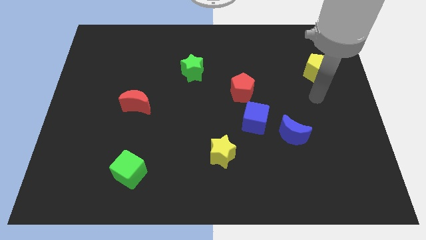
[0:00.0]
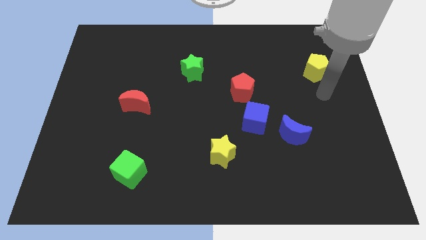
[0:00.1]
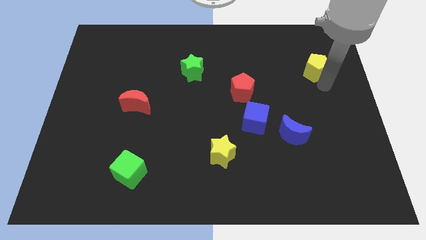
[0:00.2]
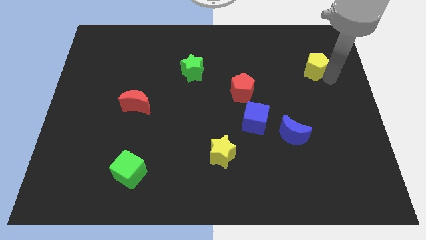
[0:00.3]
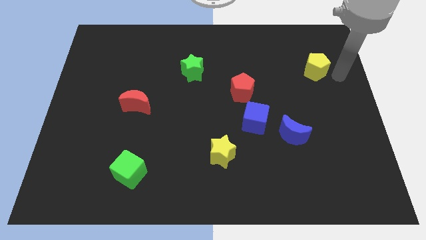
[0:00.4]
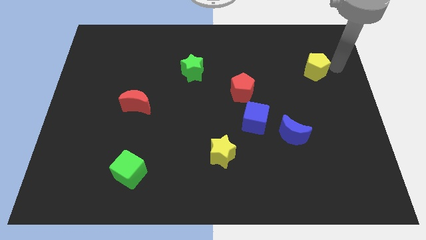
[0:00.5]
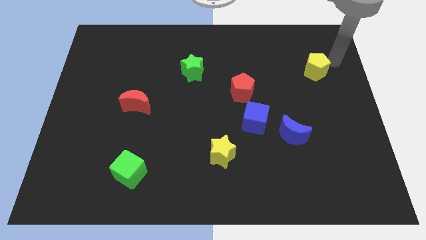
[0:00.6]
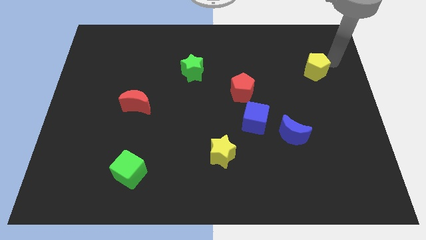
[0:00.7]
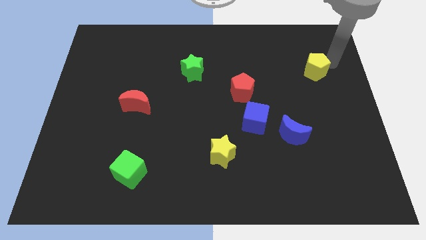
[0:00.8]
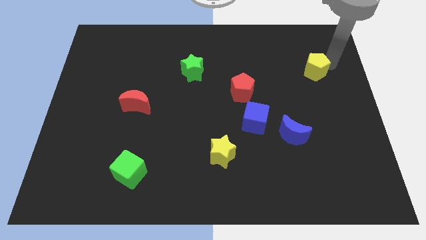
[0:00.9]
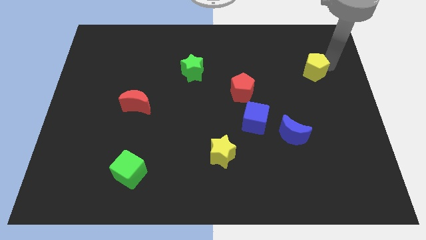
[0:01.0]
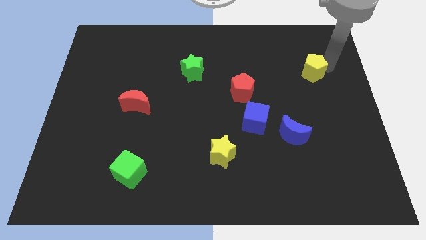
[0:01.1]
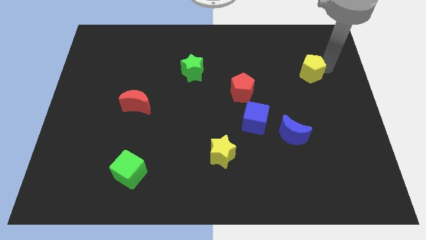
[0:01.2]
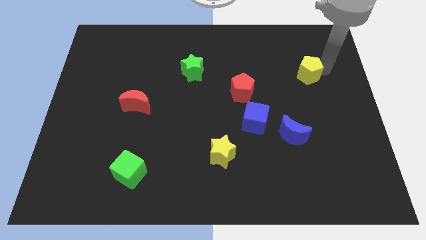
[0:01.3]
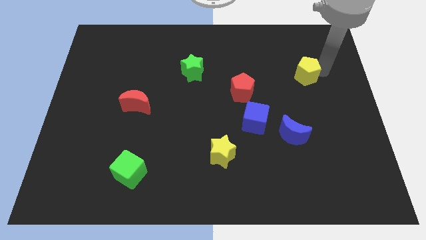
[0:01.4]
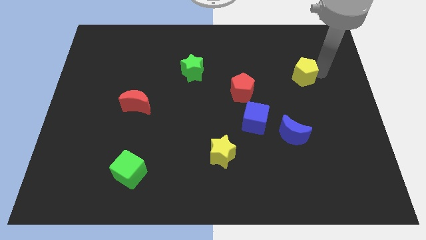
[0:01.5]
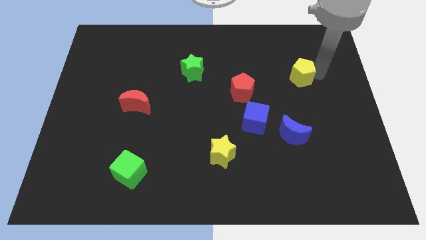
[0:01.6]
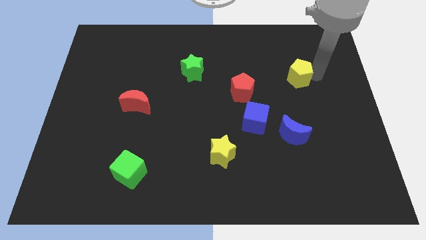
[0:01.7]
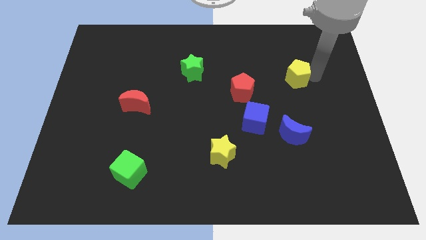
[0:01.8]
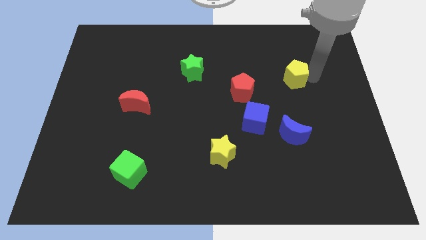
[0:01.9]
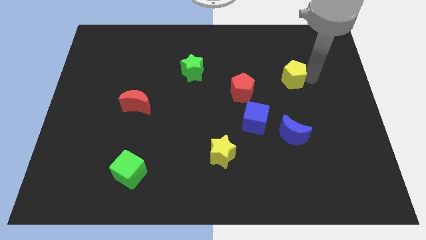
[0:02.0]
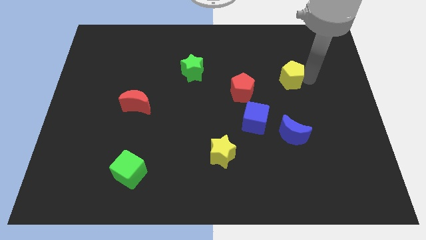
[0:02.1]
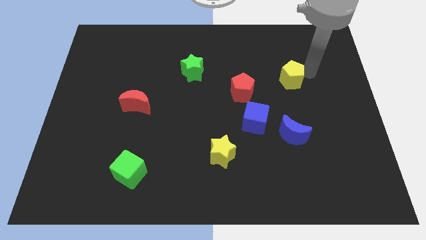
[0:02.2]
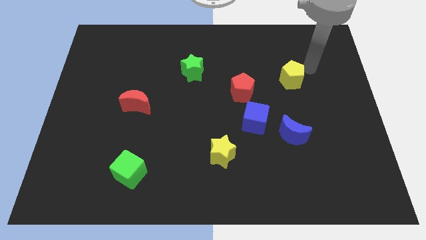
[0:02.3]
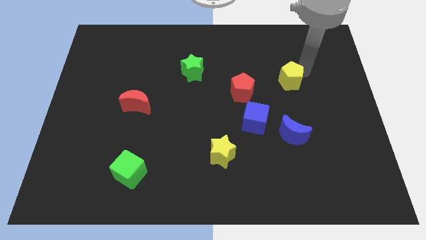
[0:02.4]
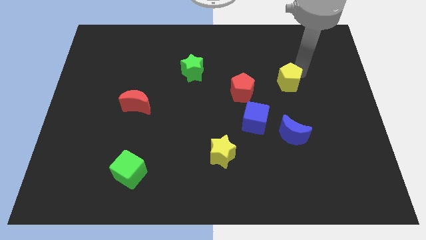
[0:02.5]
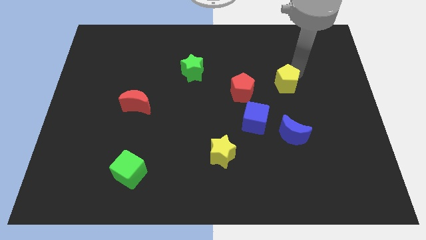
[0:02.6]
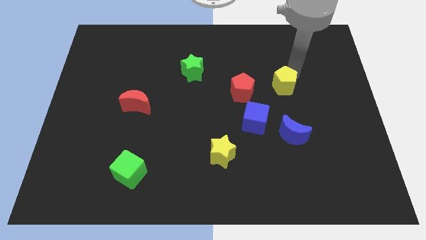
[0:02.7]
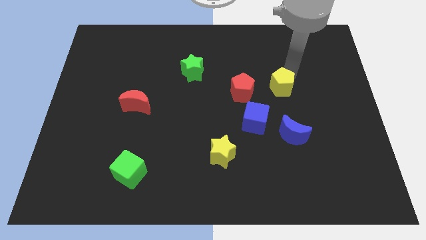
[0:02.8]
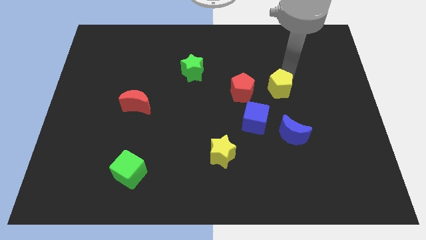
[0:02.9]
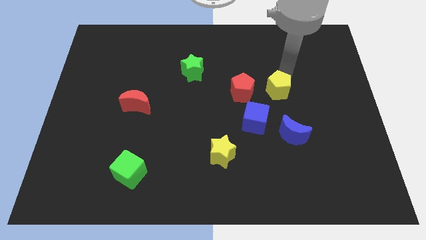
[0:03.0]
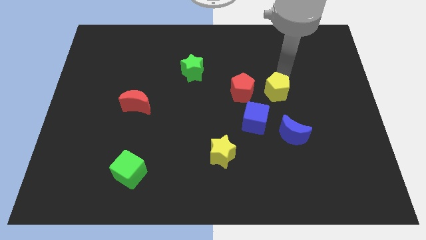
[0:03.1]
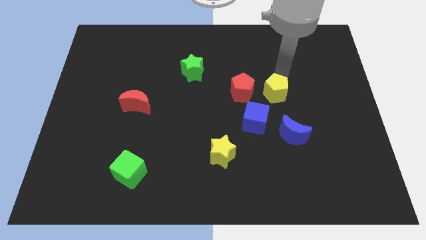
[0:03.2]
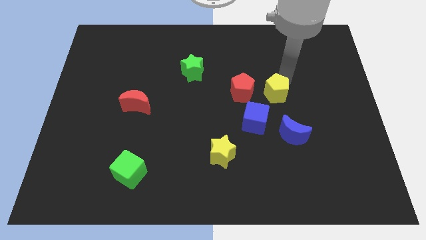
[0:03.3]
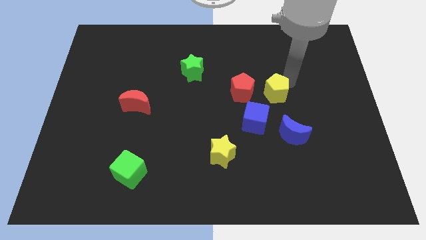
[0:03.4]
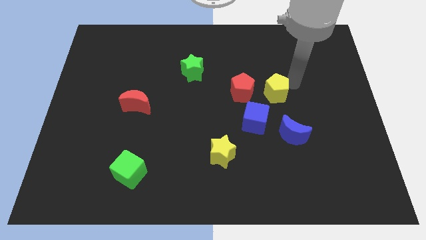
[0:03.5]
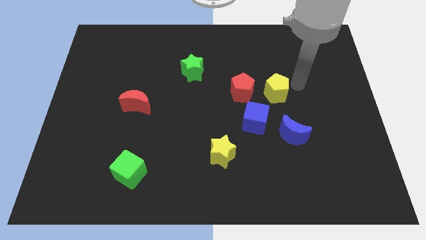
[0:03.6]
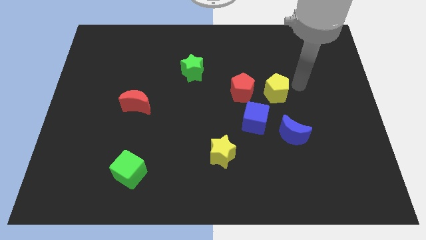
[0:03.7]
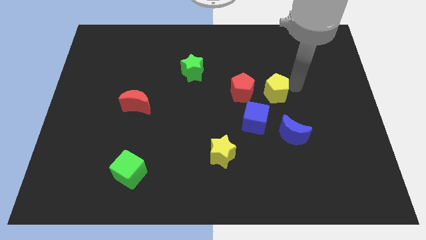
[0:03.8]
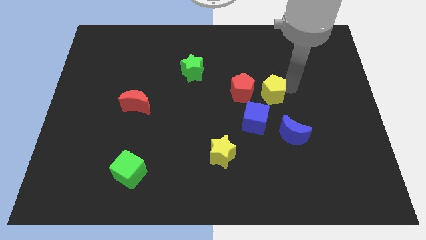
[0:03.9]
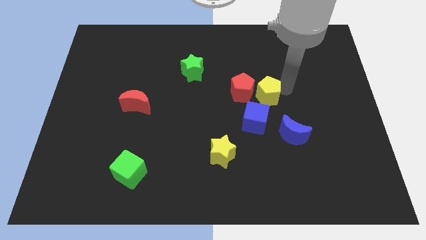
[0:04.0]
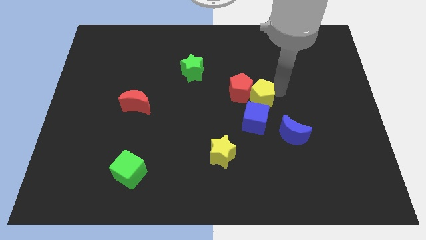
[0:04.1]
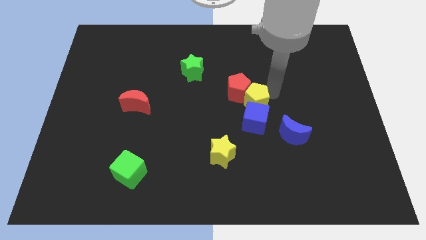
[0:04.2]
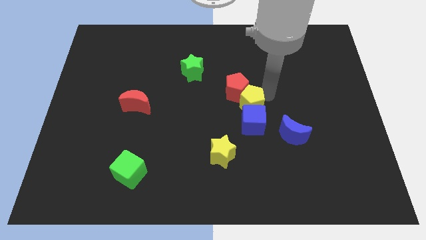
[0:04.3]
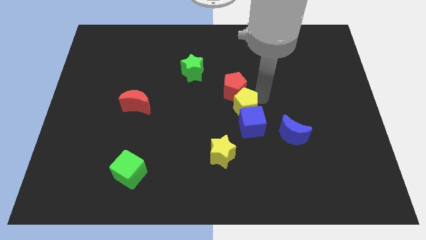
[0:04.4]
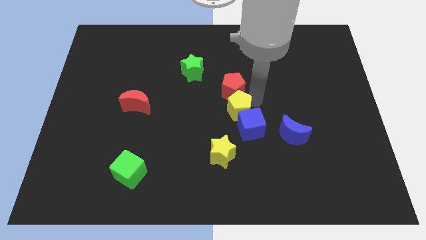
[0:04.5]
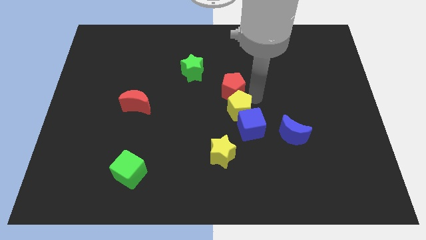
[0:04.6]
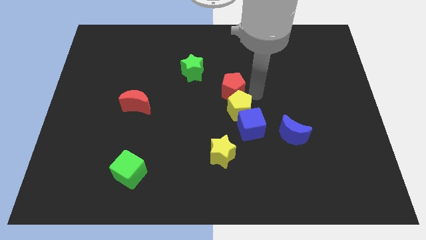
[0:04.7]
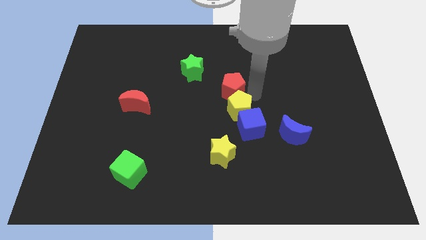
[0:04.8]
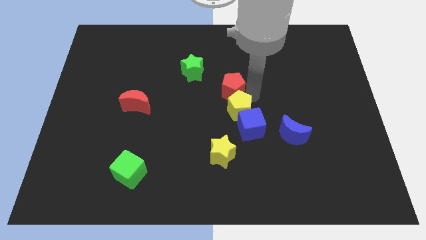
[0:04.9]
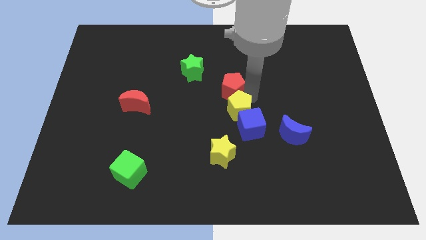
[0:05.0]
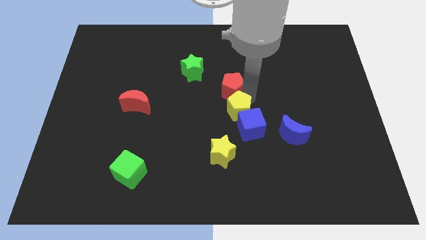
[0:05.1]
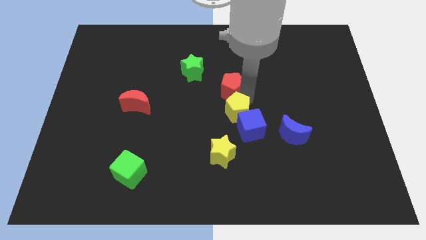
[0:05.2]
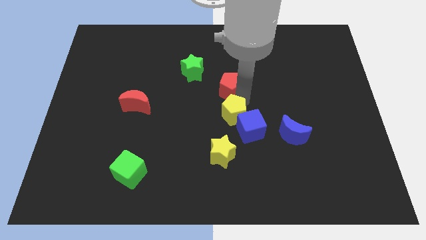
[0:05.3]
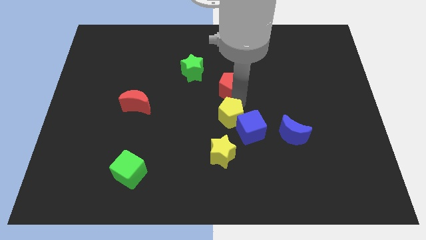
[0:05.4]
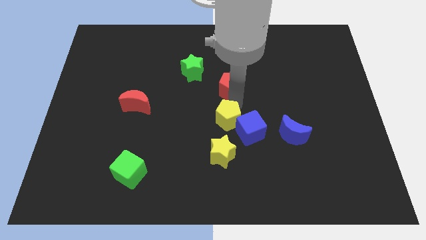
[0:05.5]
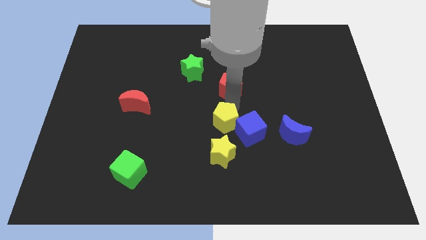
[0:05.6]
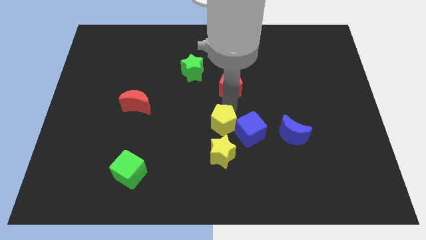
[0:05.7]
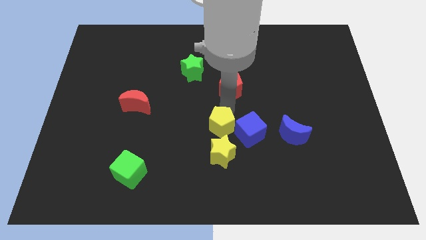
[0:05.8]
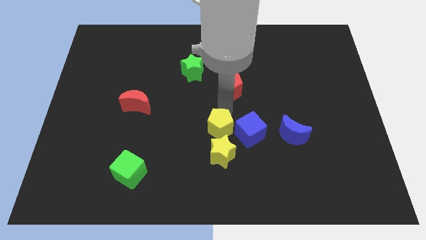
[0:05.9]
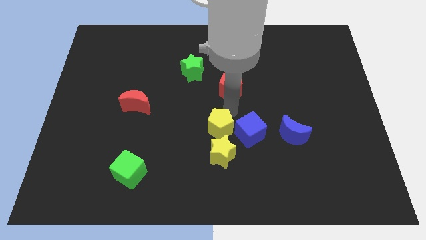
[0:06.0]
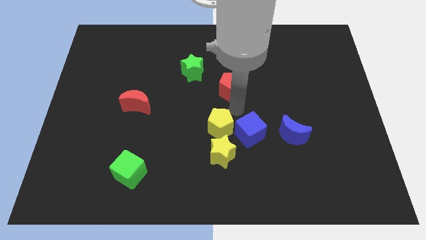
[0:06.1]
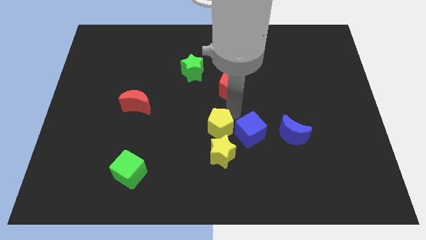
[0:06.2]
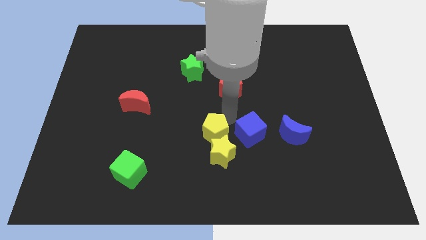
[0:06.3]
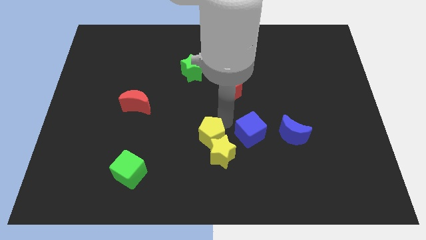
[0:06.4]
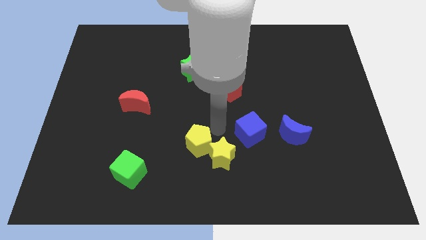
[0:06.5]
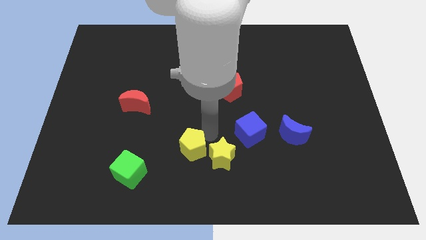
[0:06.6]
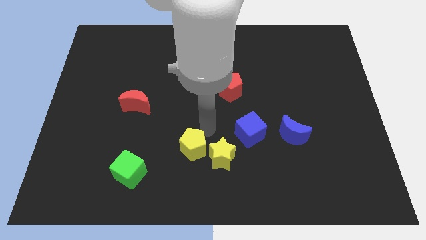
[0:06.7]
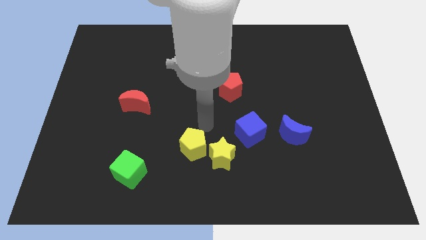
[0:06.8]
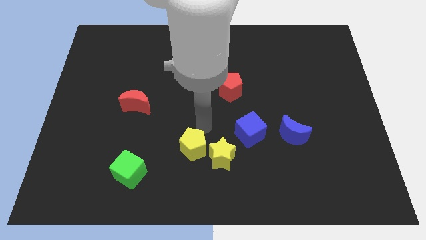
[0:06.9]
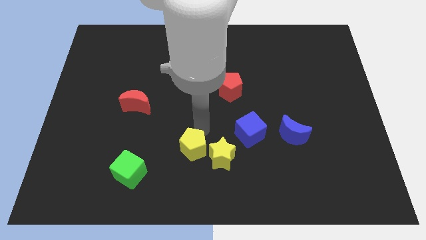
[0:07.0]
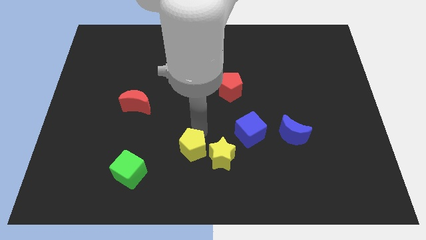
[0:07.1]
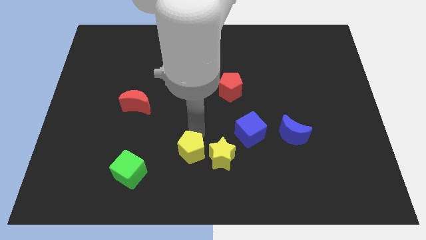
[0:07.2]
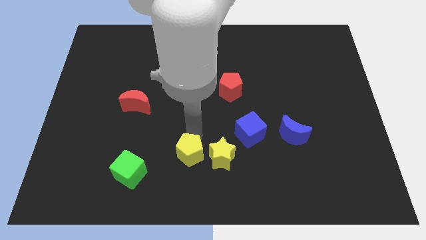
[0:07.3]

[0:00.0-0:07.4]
push the yellow pentagon to the right side of the green cube

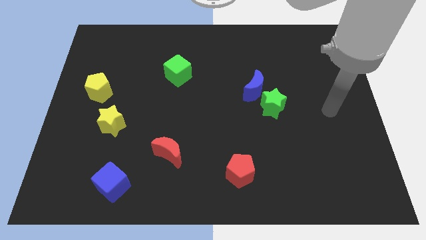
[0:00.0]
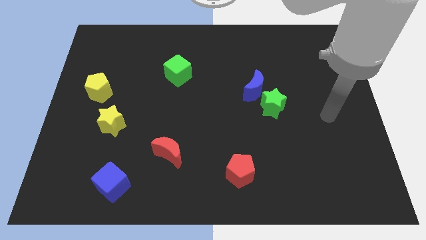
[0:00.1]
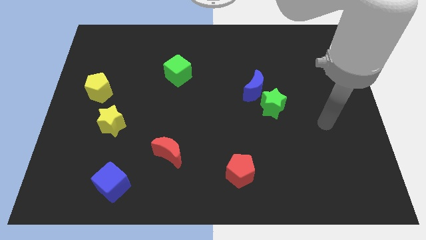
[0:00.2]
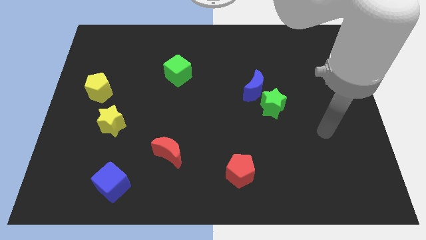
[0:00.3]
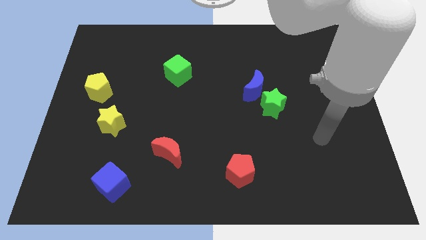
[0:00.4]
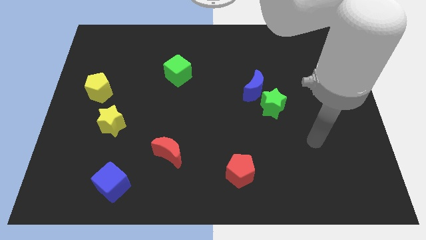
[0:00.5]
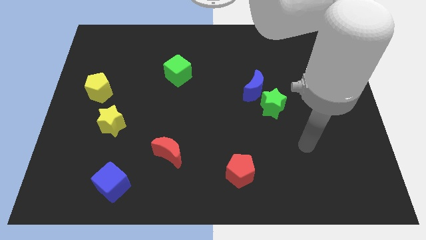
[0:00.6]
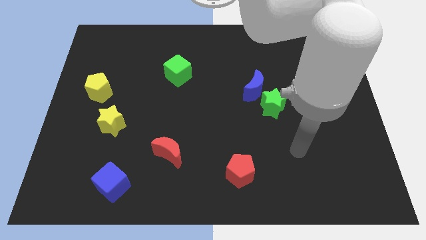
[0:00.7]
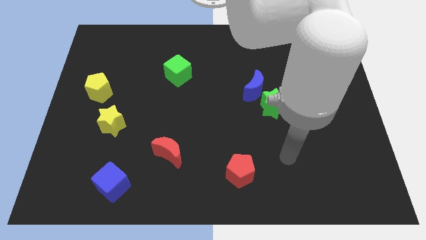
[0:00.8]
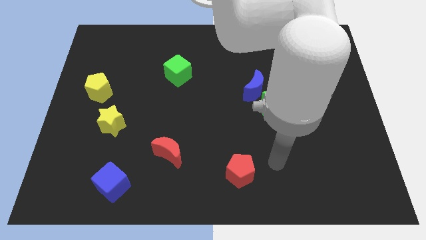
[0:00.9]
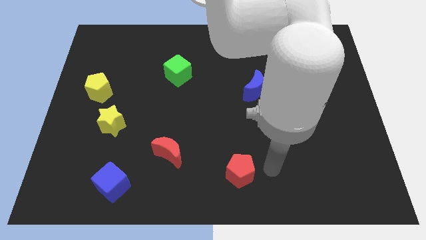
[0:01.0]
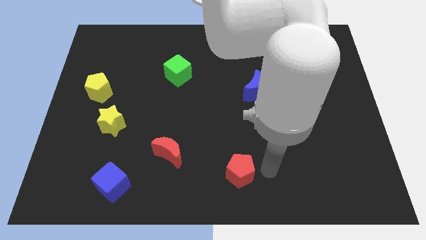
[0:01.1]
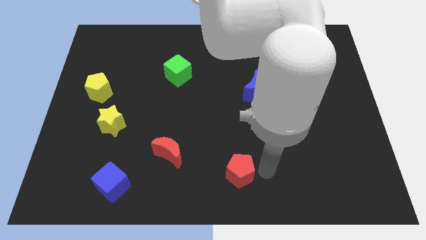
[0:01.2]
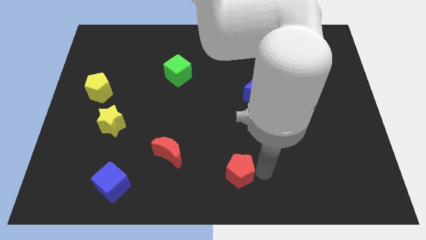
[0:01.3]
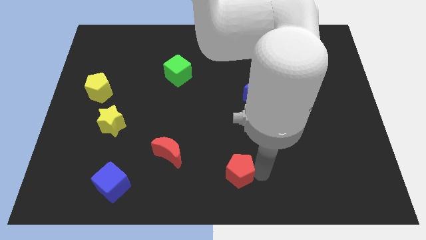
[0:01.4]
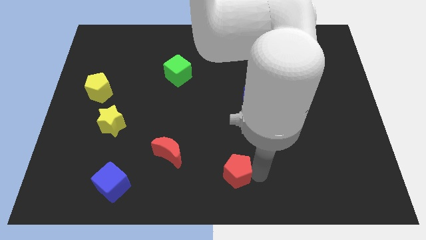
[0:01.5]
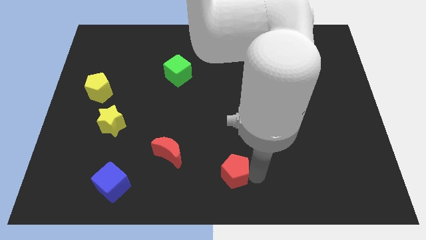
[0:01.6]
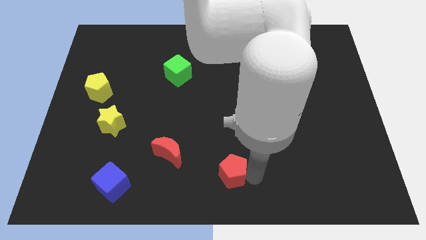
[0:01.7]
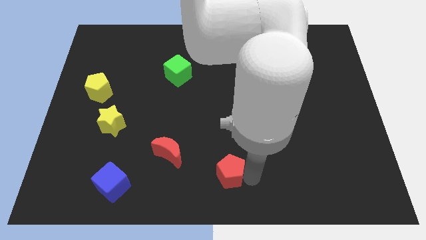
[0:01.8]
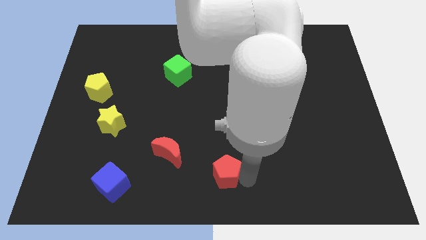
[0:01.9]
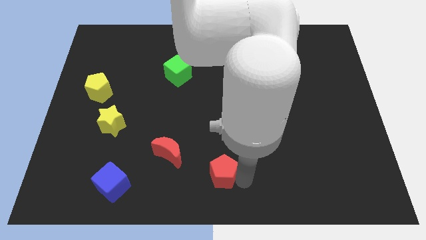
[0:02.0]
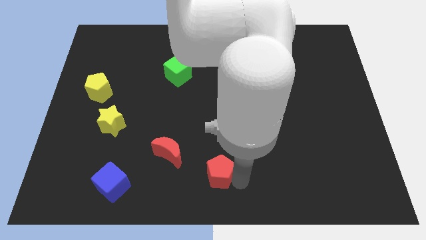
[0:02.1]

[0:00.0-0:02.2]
slide the red pentagon to the bottom right side of the red moon
